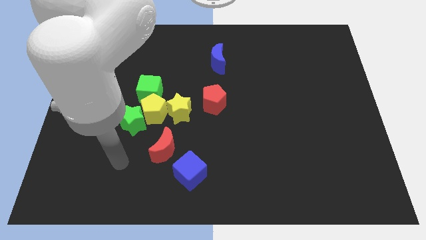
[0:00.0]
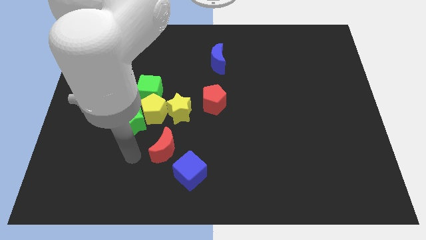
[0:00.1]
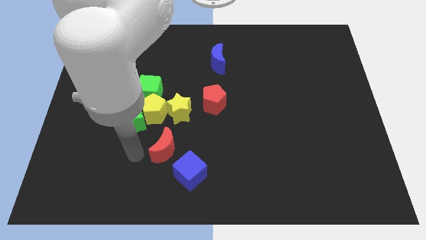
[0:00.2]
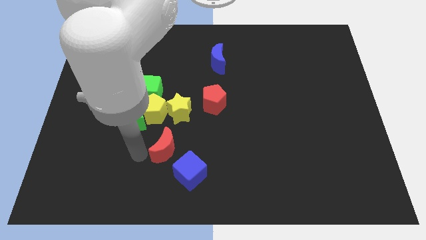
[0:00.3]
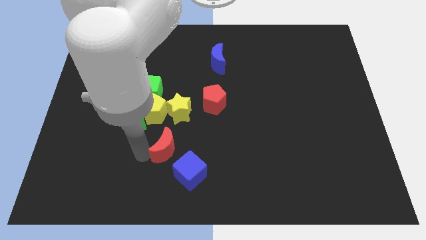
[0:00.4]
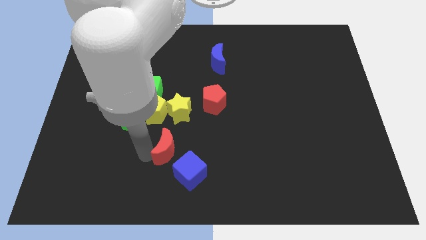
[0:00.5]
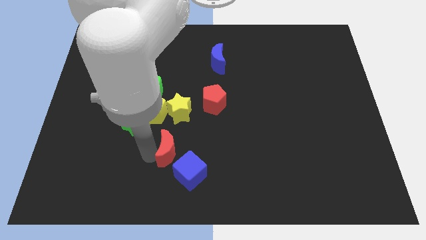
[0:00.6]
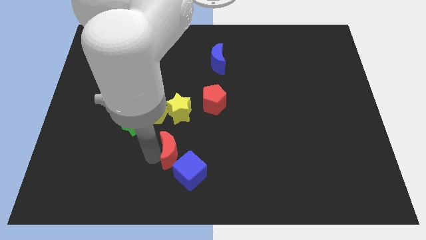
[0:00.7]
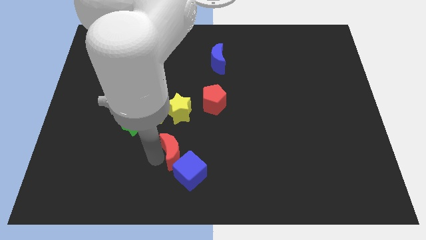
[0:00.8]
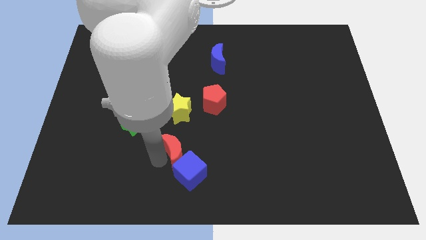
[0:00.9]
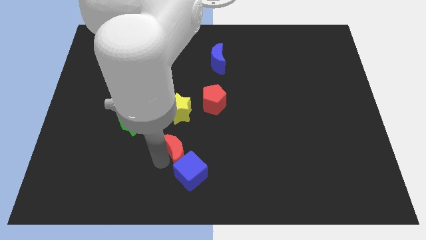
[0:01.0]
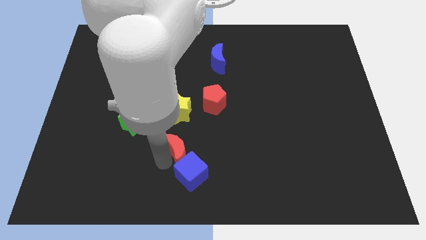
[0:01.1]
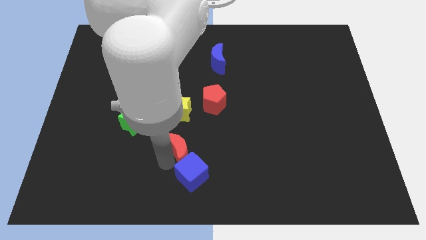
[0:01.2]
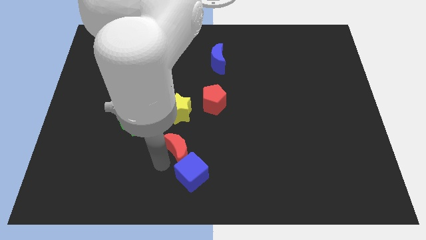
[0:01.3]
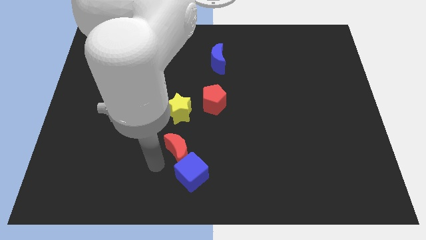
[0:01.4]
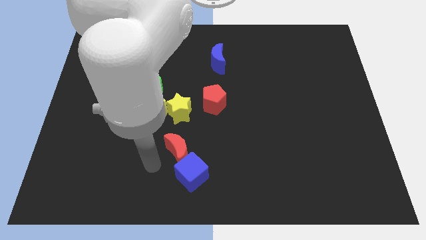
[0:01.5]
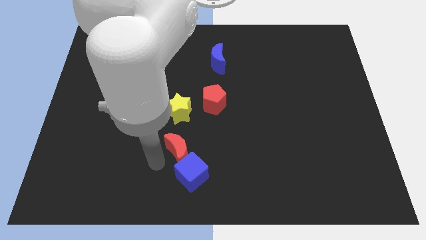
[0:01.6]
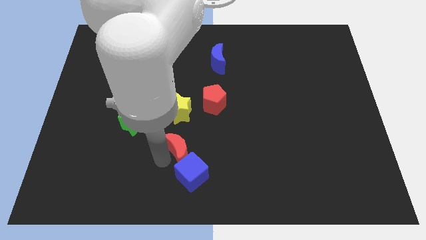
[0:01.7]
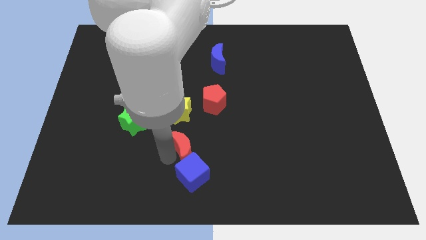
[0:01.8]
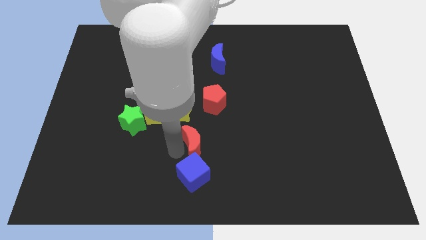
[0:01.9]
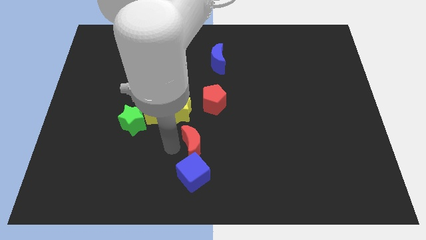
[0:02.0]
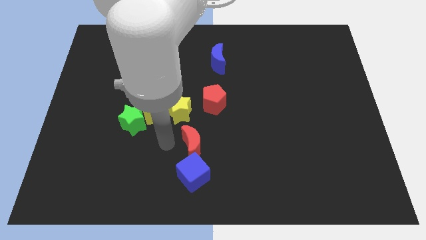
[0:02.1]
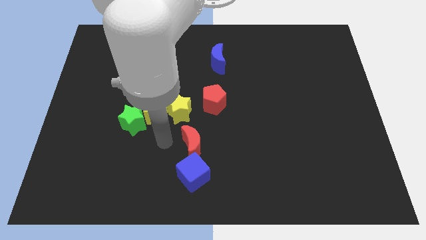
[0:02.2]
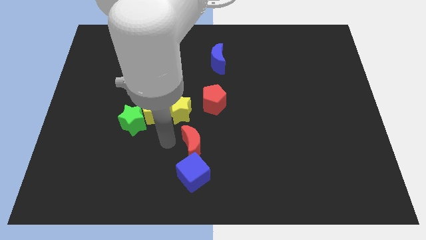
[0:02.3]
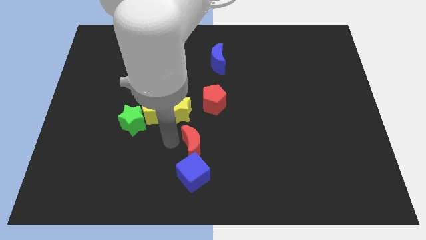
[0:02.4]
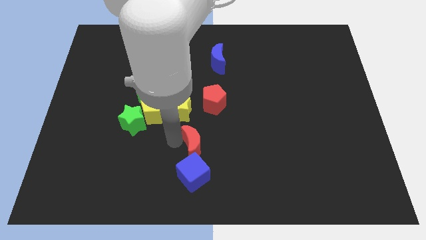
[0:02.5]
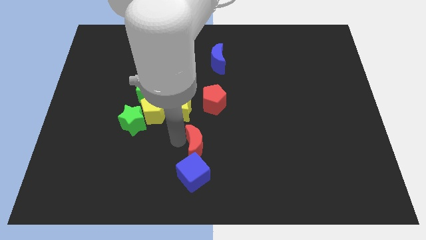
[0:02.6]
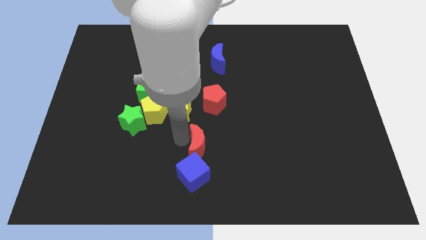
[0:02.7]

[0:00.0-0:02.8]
move the red moon to the right a little bit

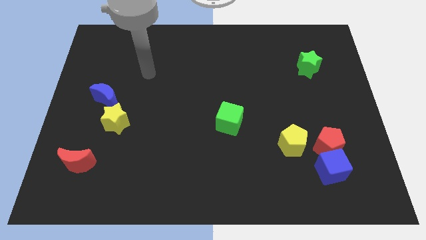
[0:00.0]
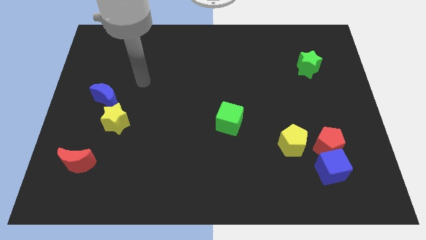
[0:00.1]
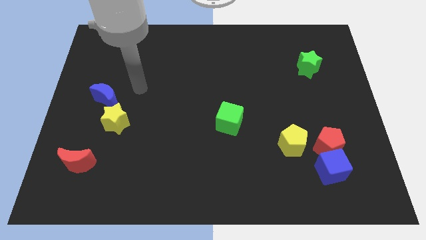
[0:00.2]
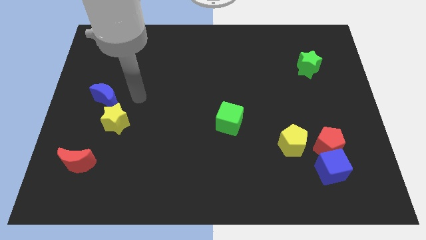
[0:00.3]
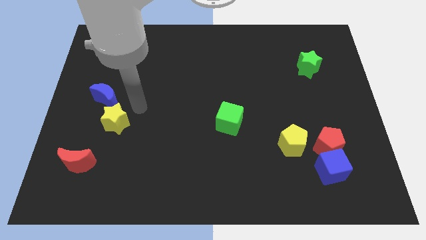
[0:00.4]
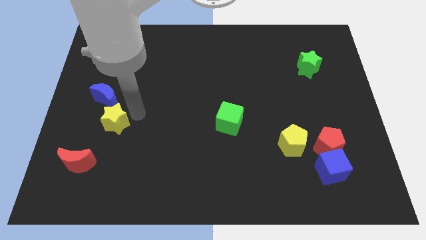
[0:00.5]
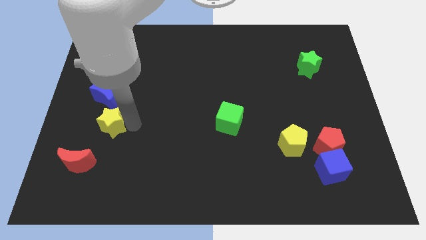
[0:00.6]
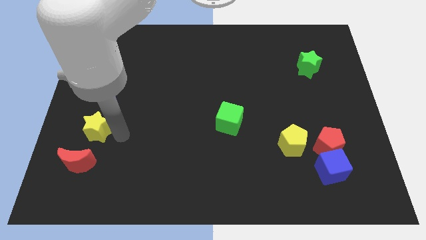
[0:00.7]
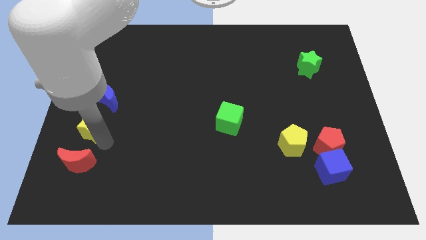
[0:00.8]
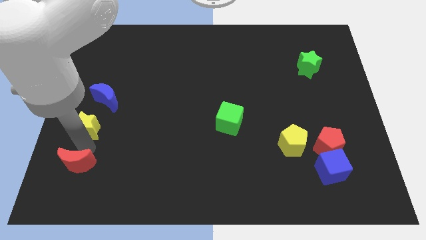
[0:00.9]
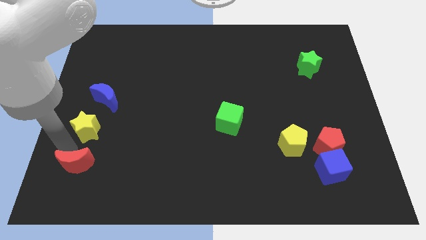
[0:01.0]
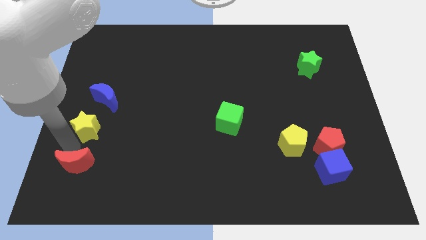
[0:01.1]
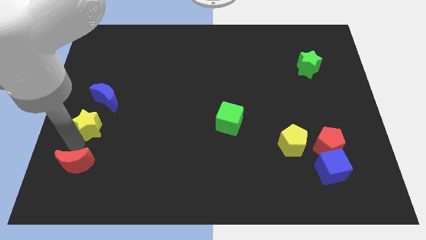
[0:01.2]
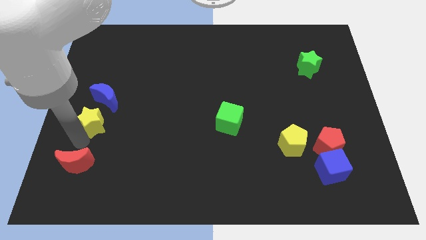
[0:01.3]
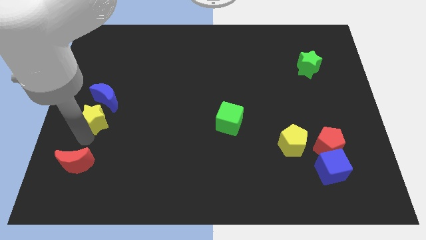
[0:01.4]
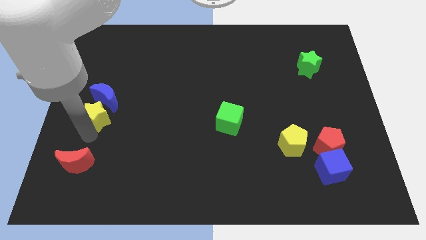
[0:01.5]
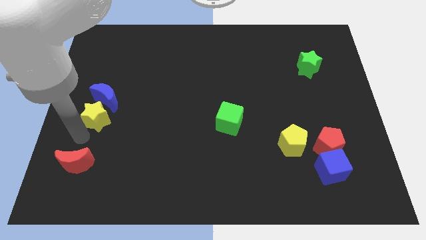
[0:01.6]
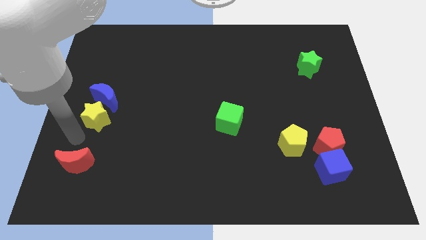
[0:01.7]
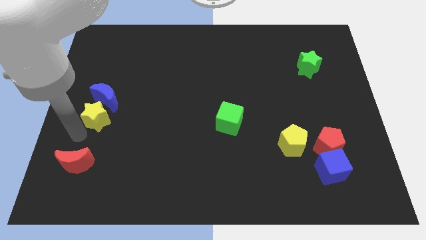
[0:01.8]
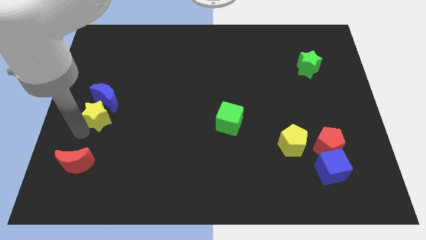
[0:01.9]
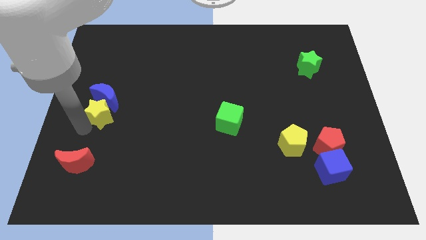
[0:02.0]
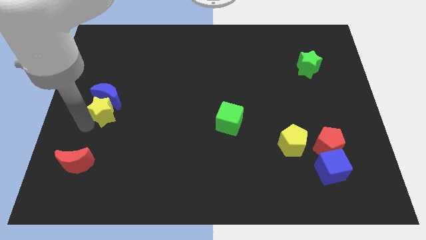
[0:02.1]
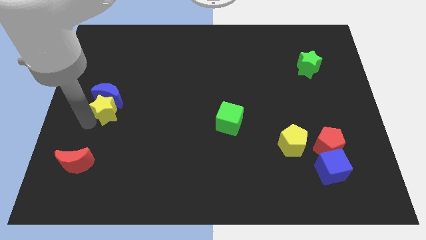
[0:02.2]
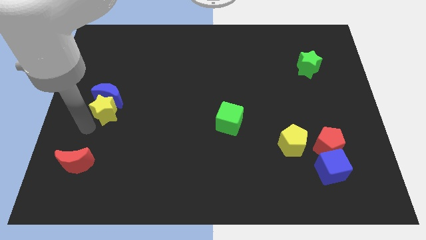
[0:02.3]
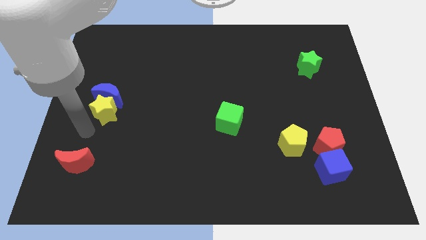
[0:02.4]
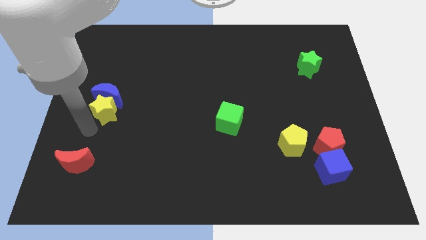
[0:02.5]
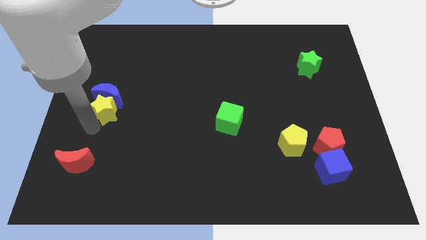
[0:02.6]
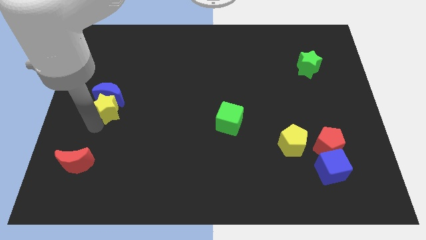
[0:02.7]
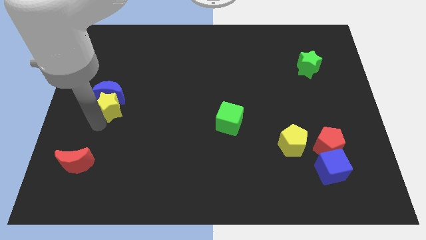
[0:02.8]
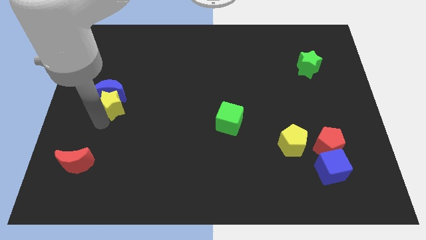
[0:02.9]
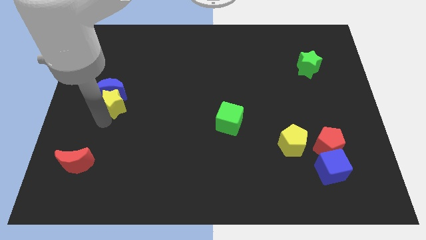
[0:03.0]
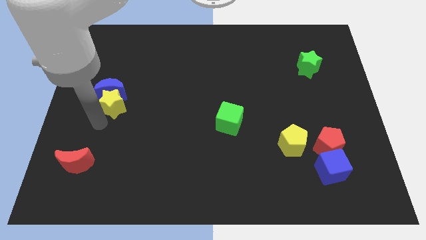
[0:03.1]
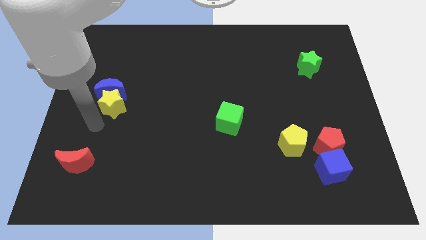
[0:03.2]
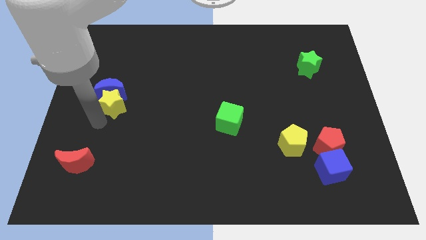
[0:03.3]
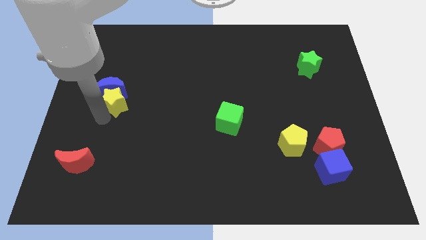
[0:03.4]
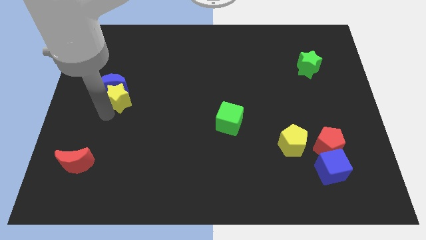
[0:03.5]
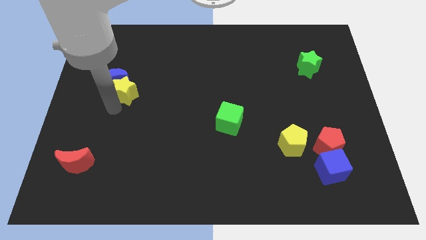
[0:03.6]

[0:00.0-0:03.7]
move the yellow star a little bit upwards

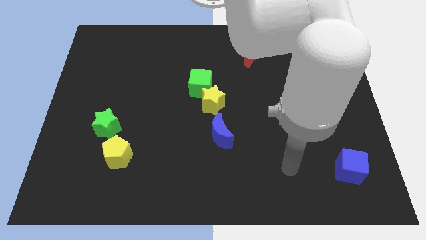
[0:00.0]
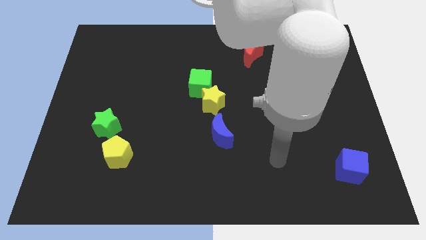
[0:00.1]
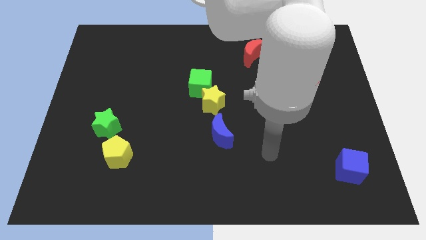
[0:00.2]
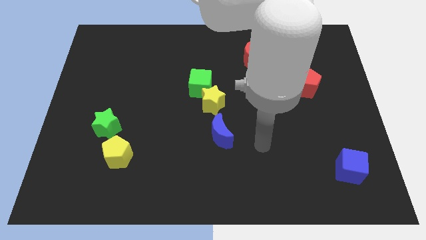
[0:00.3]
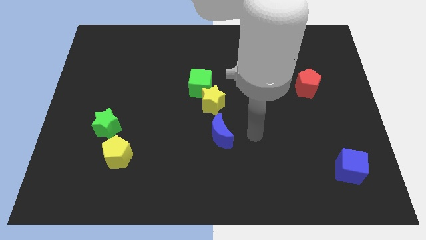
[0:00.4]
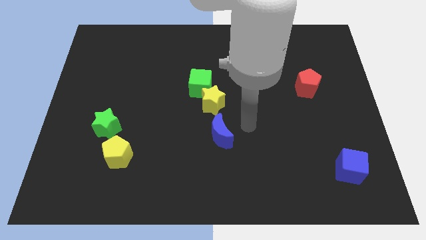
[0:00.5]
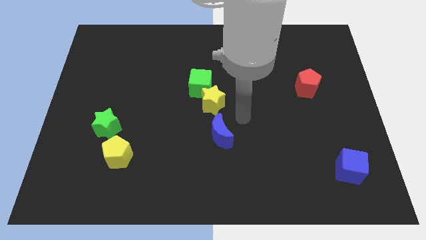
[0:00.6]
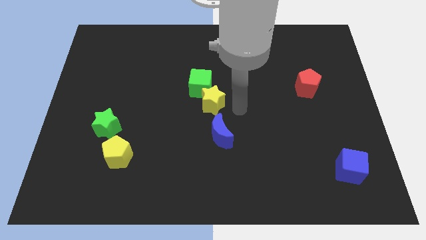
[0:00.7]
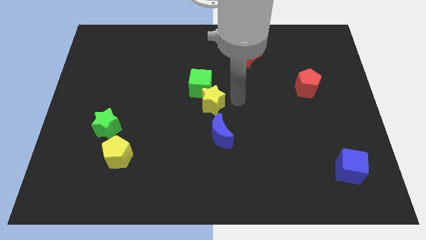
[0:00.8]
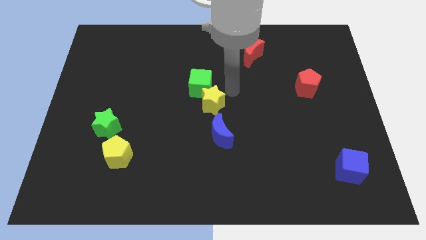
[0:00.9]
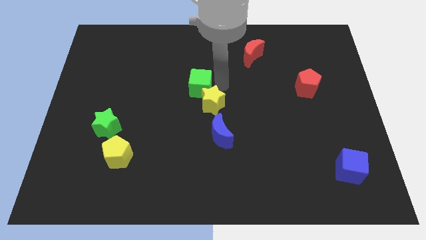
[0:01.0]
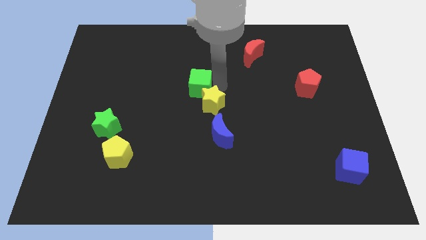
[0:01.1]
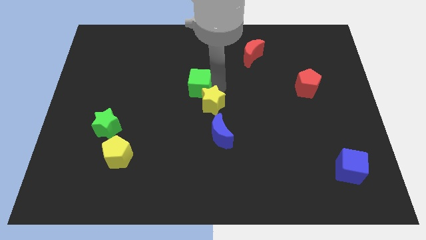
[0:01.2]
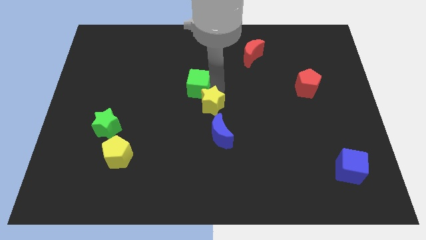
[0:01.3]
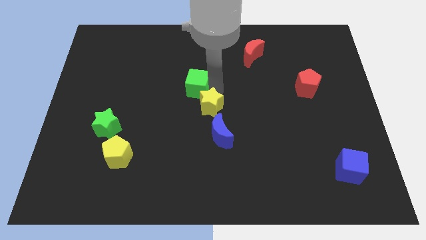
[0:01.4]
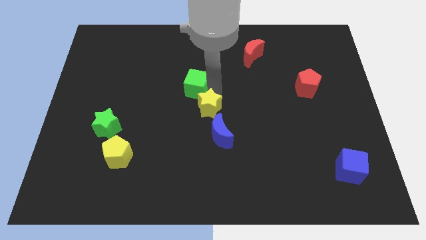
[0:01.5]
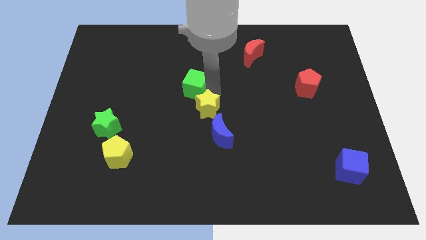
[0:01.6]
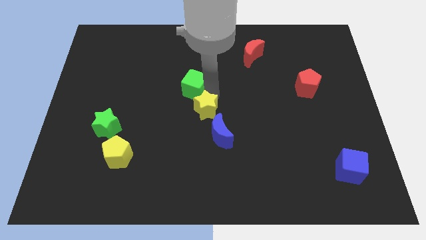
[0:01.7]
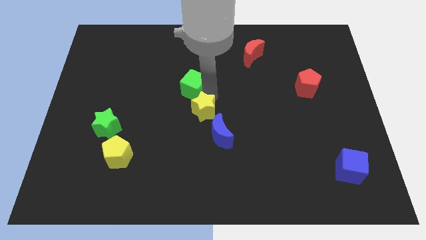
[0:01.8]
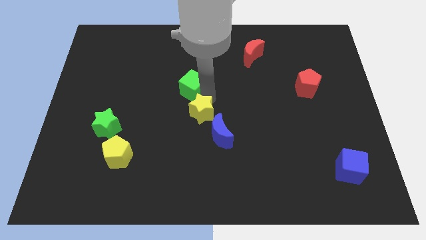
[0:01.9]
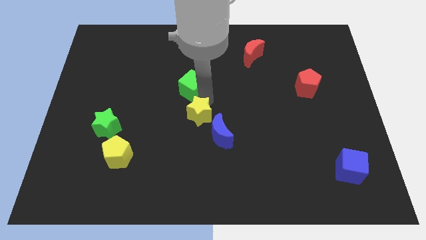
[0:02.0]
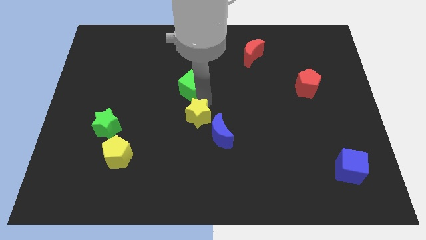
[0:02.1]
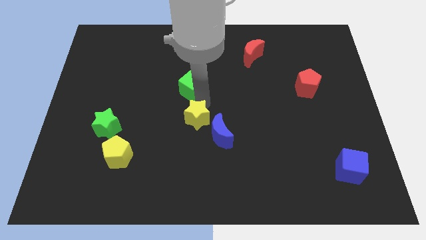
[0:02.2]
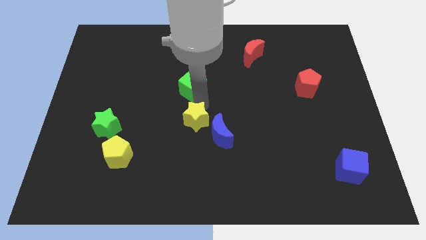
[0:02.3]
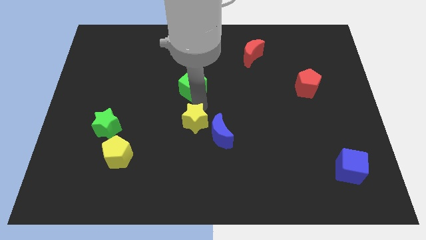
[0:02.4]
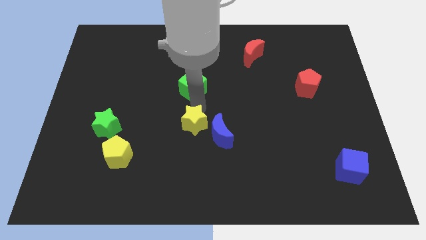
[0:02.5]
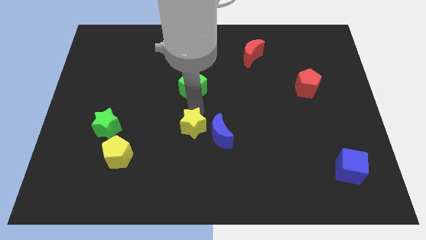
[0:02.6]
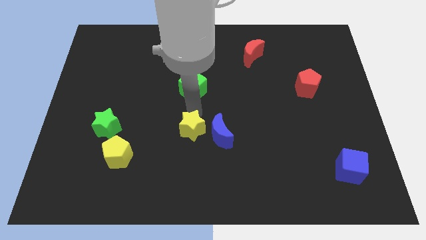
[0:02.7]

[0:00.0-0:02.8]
move the yellow star downwards somewhat
